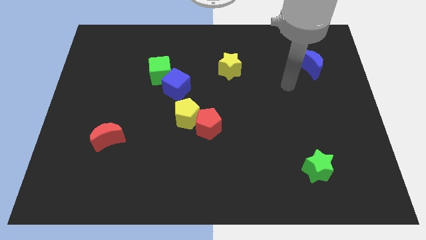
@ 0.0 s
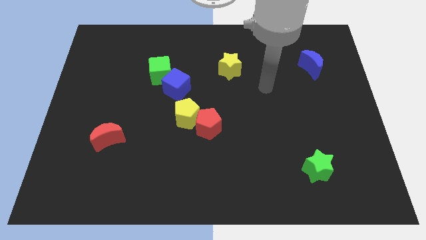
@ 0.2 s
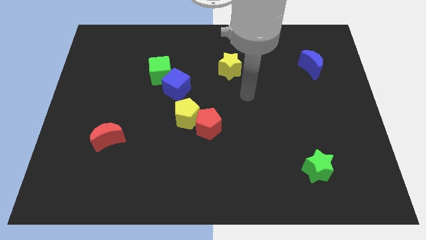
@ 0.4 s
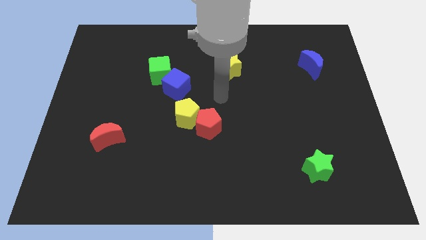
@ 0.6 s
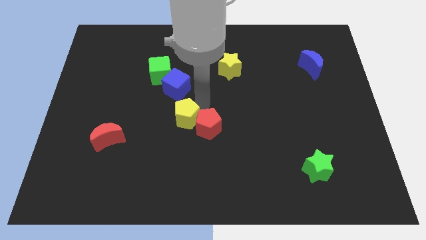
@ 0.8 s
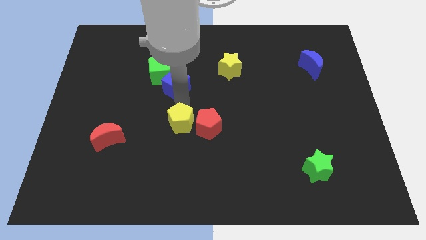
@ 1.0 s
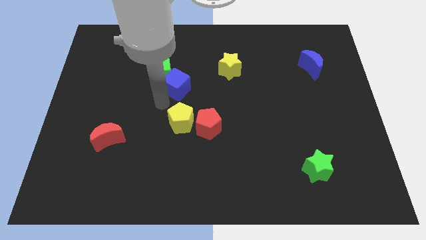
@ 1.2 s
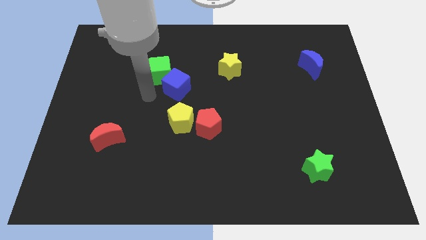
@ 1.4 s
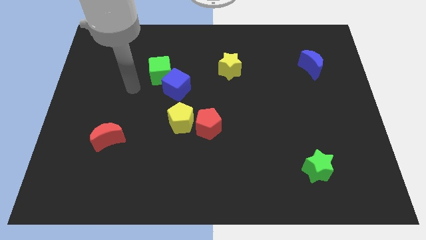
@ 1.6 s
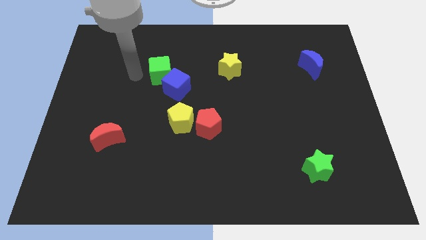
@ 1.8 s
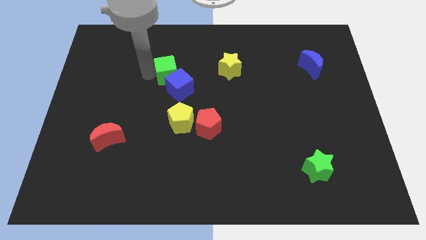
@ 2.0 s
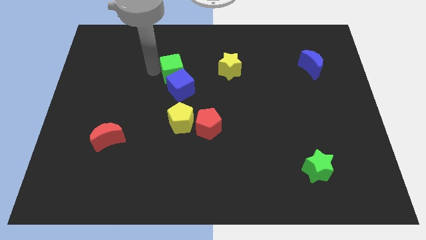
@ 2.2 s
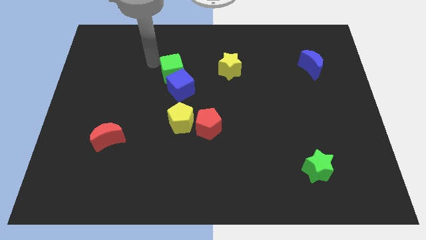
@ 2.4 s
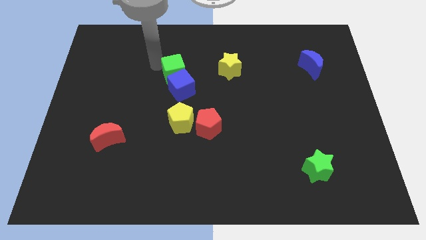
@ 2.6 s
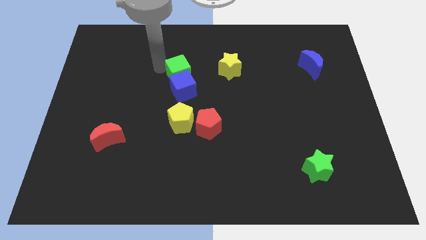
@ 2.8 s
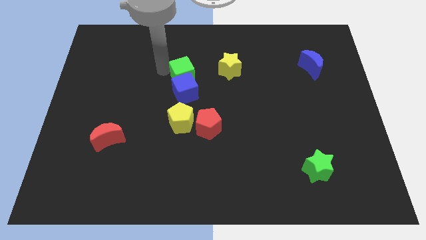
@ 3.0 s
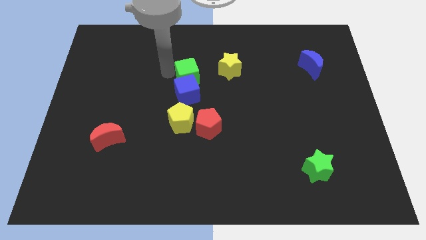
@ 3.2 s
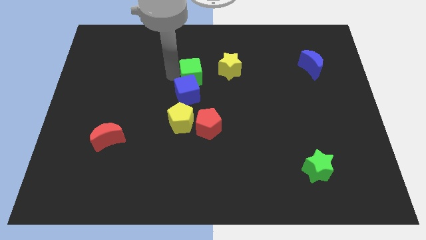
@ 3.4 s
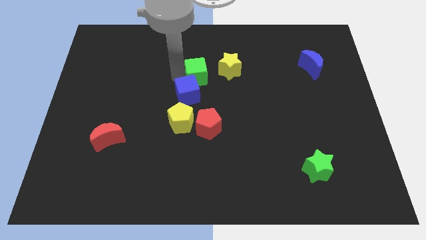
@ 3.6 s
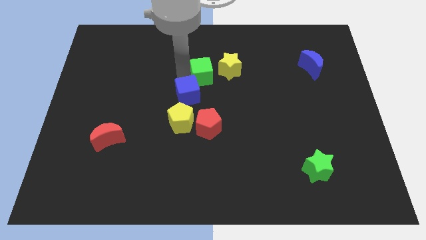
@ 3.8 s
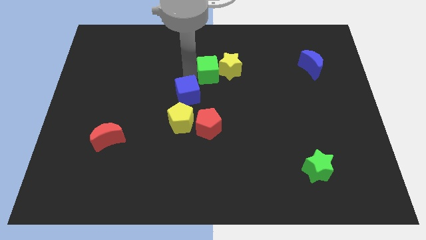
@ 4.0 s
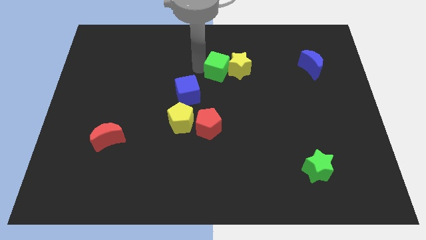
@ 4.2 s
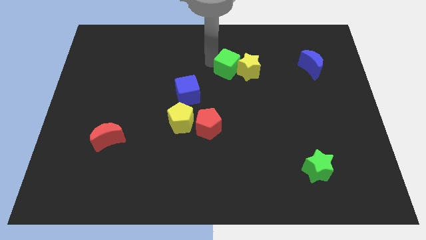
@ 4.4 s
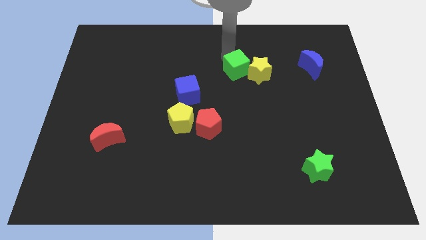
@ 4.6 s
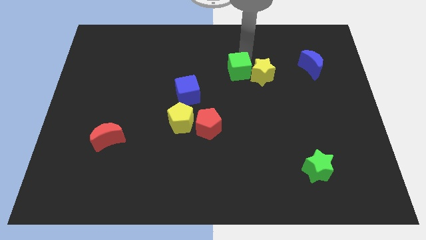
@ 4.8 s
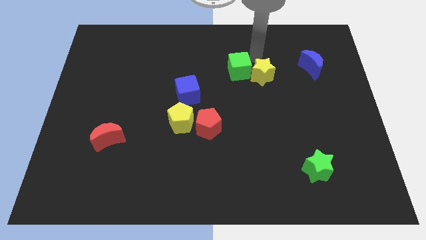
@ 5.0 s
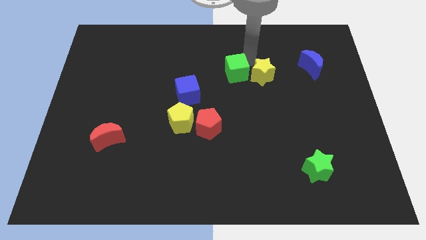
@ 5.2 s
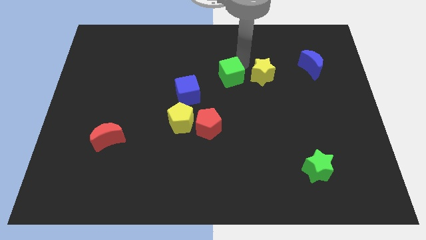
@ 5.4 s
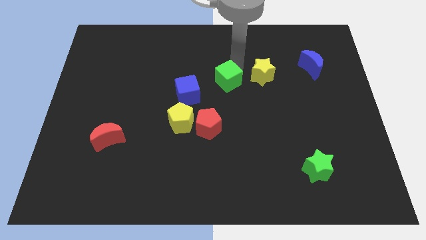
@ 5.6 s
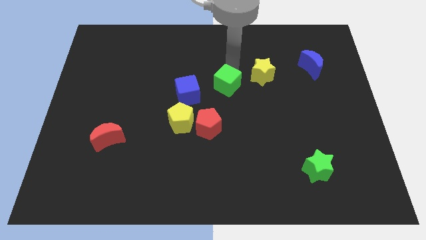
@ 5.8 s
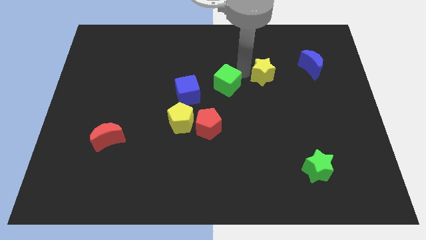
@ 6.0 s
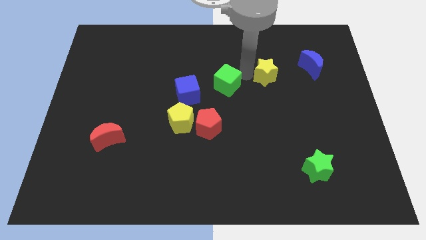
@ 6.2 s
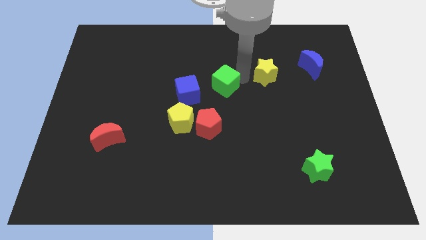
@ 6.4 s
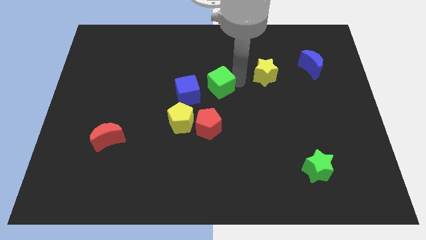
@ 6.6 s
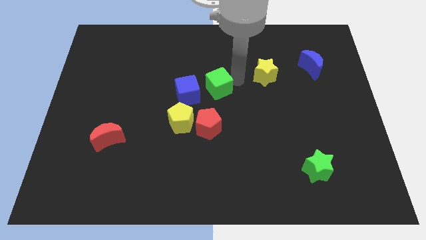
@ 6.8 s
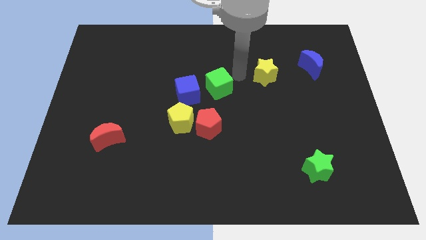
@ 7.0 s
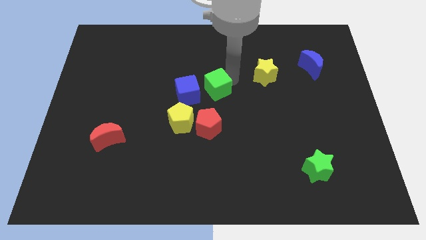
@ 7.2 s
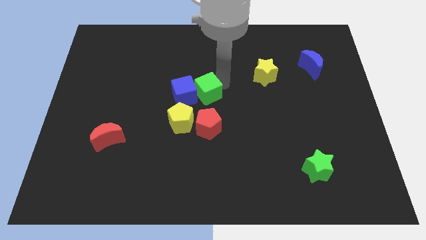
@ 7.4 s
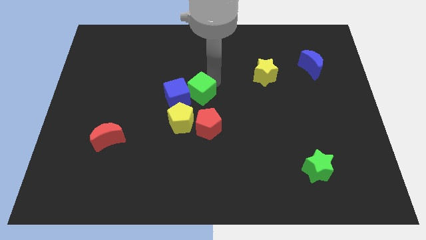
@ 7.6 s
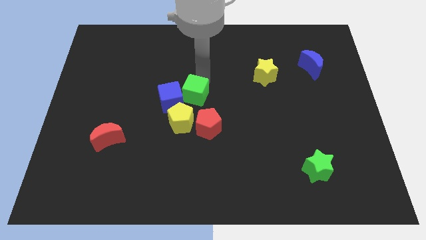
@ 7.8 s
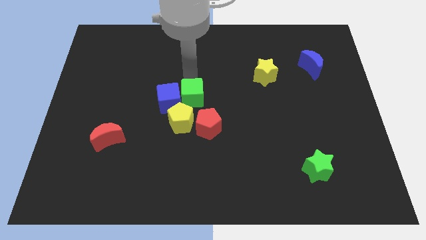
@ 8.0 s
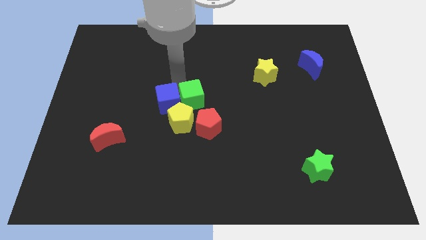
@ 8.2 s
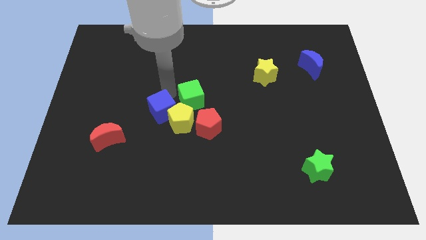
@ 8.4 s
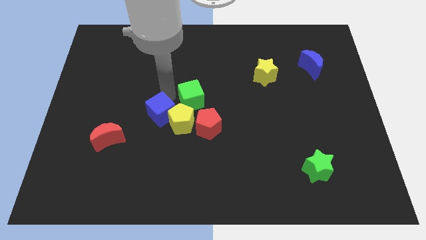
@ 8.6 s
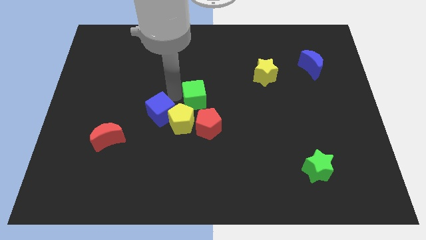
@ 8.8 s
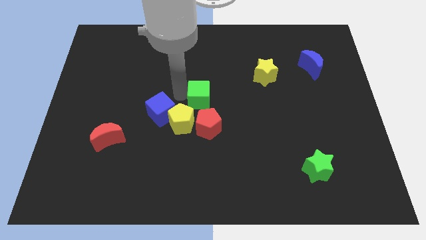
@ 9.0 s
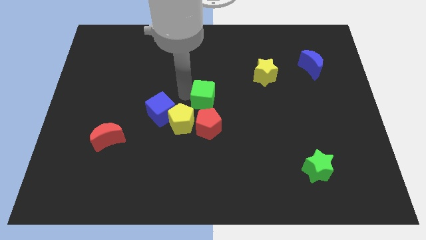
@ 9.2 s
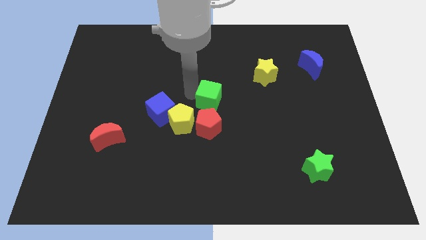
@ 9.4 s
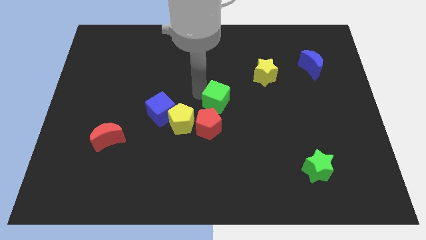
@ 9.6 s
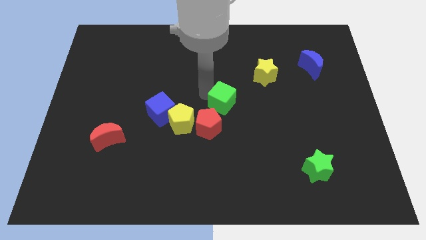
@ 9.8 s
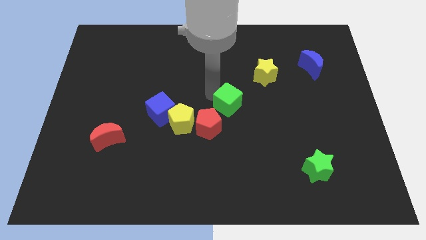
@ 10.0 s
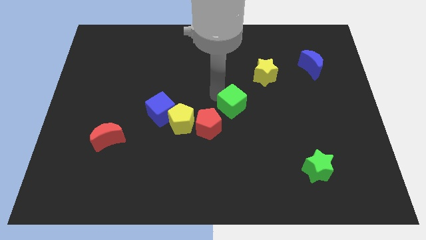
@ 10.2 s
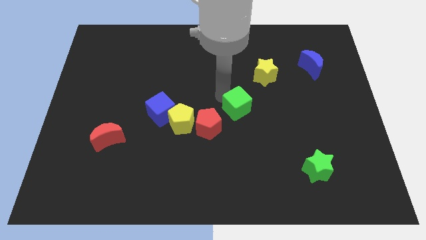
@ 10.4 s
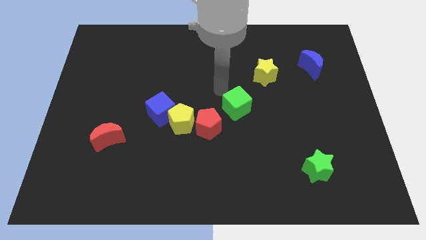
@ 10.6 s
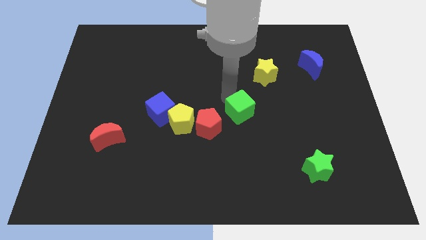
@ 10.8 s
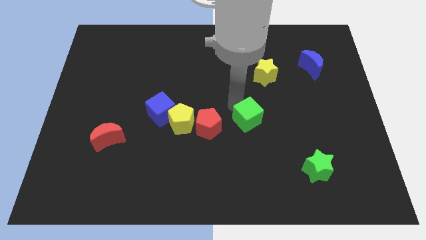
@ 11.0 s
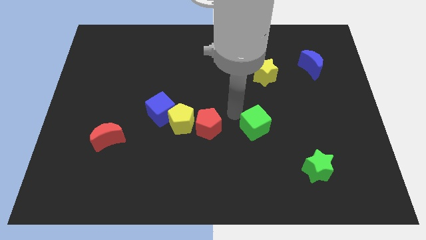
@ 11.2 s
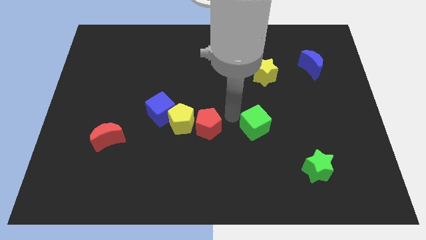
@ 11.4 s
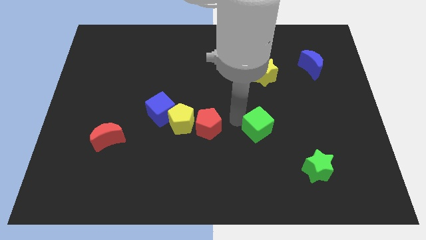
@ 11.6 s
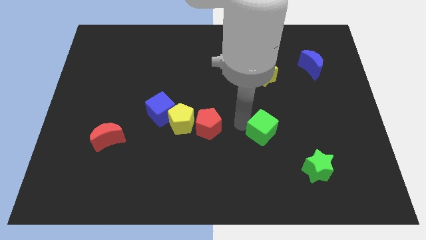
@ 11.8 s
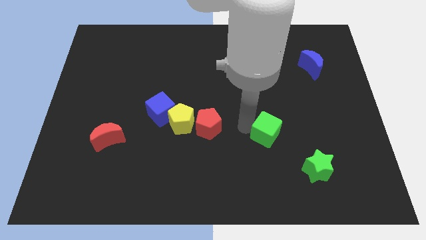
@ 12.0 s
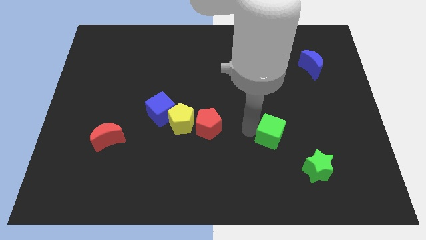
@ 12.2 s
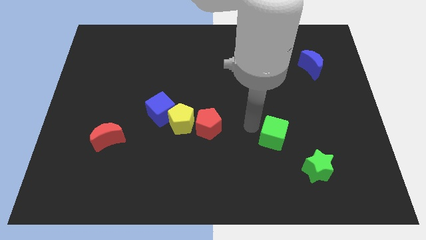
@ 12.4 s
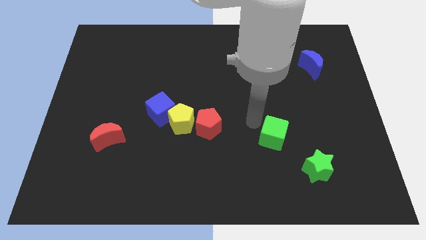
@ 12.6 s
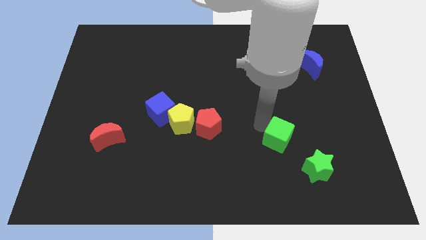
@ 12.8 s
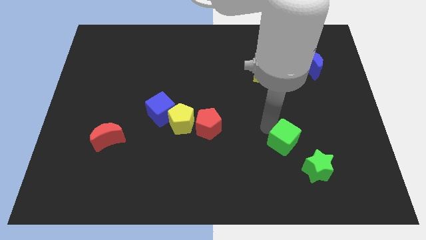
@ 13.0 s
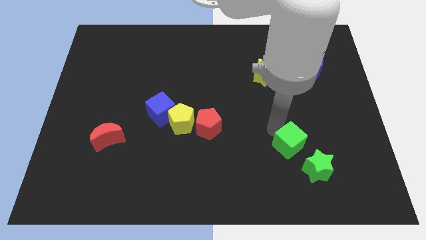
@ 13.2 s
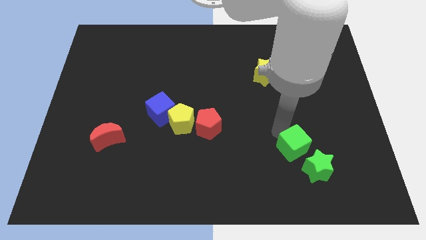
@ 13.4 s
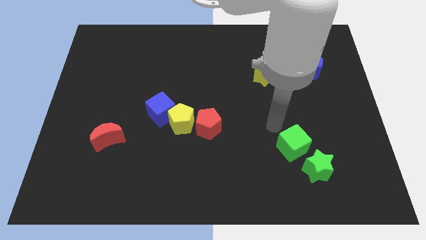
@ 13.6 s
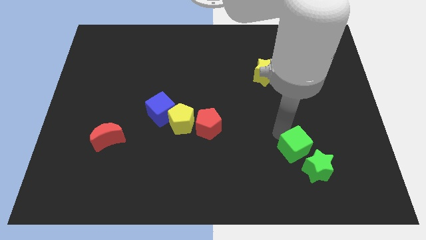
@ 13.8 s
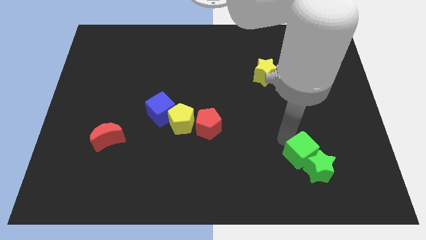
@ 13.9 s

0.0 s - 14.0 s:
slide the green cube towards the green star

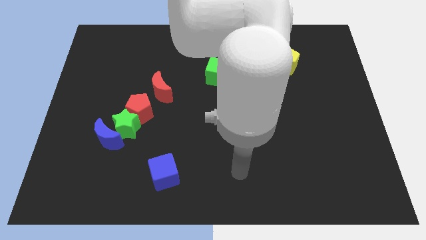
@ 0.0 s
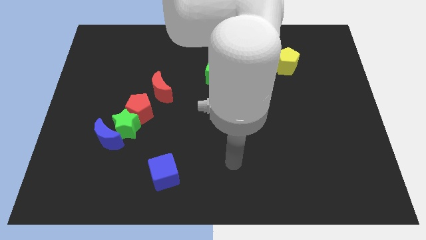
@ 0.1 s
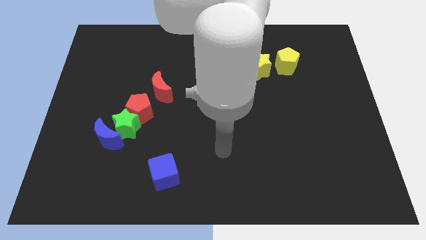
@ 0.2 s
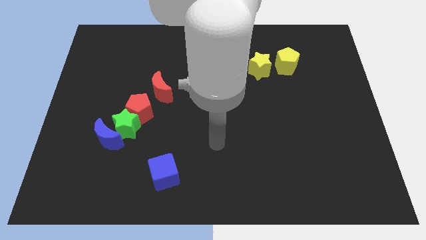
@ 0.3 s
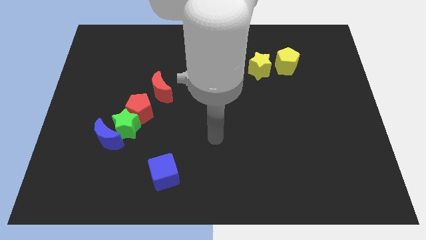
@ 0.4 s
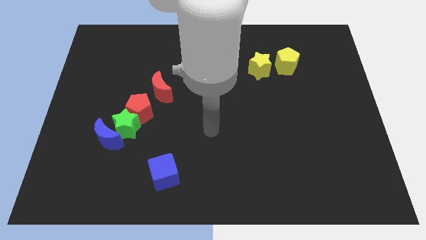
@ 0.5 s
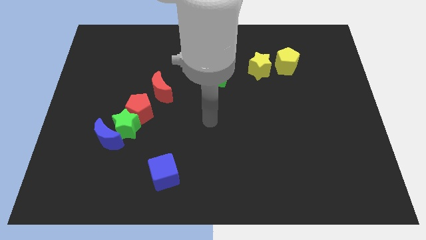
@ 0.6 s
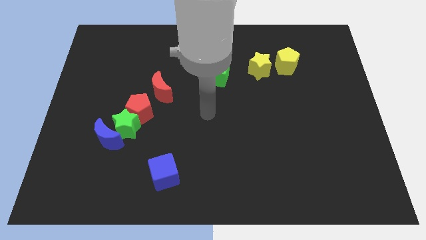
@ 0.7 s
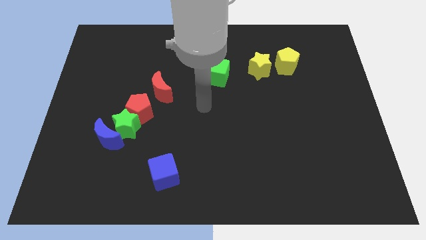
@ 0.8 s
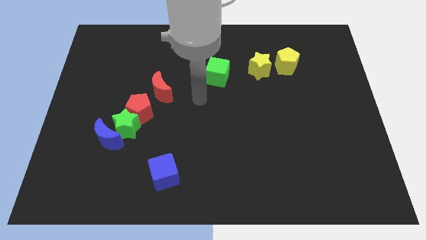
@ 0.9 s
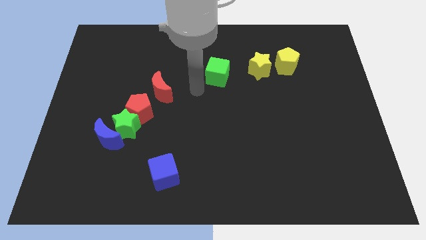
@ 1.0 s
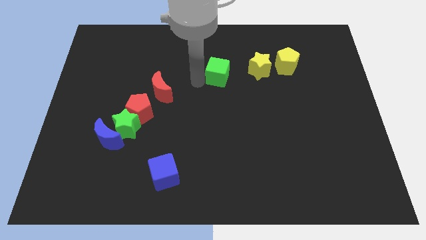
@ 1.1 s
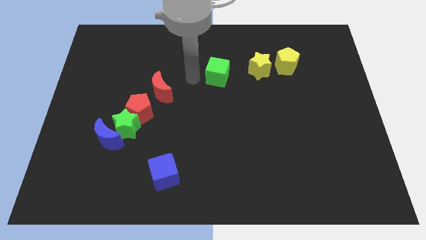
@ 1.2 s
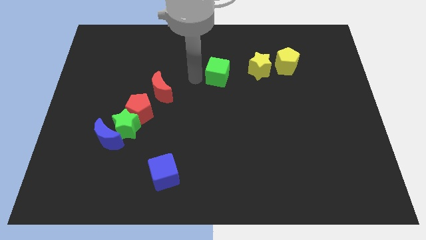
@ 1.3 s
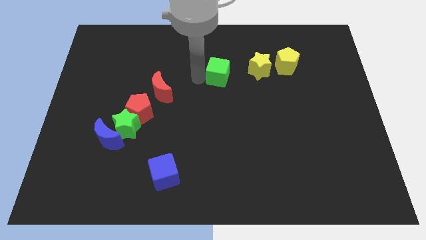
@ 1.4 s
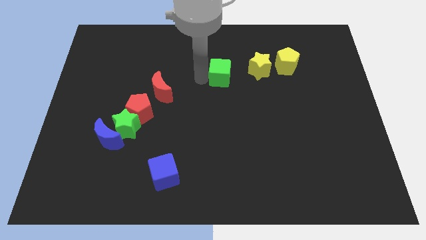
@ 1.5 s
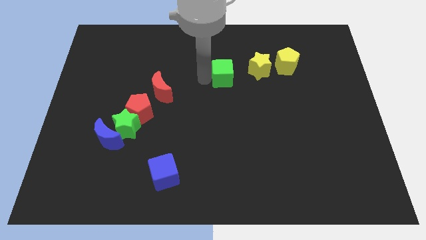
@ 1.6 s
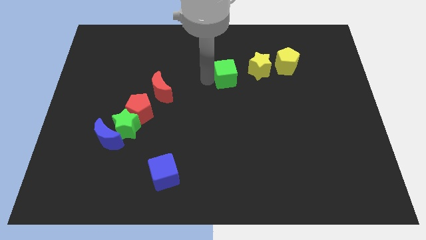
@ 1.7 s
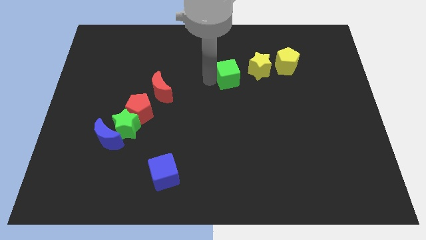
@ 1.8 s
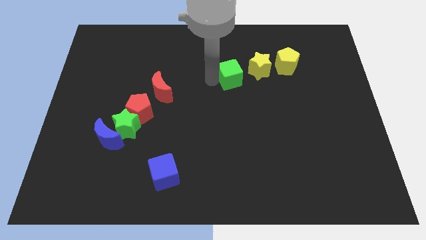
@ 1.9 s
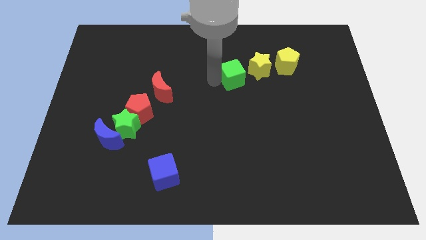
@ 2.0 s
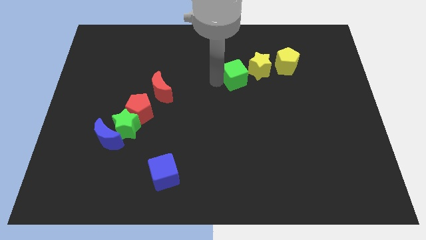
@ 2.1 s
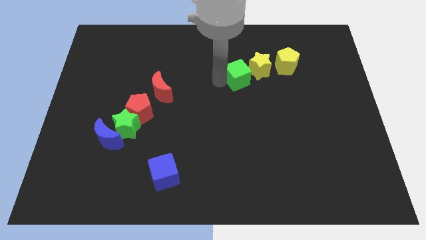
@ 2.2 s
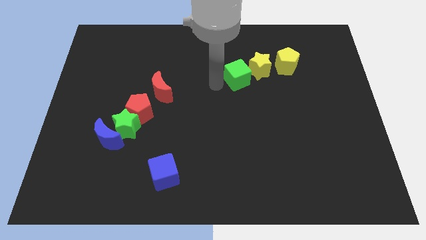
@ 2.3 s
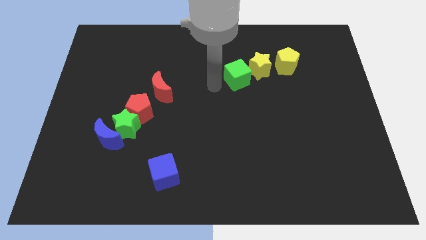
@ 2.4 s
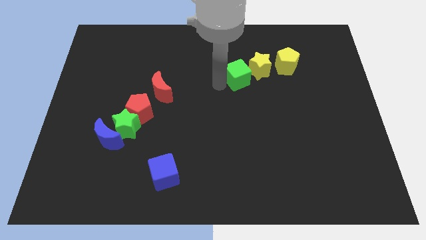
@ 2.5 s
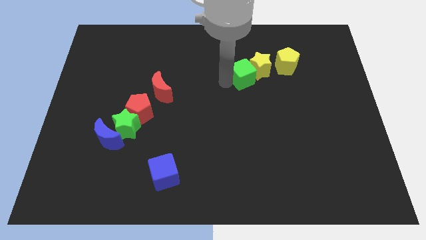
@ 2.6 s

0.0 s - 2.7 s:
put the green cube close to the yellow star
